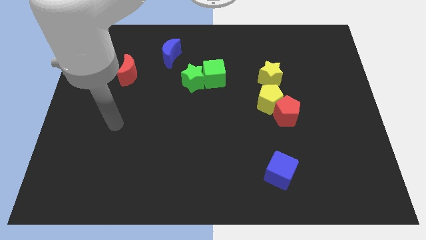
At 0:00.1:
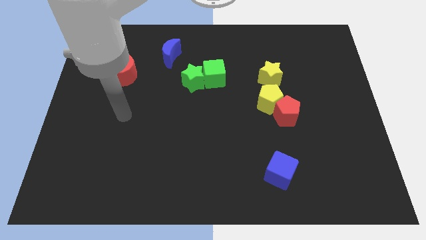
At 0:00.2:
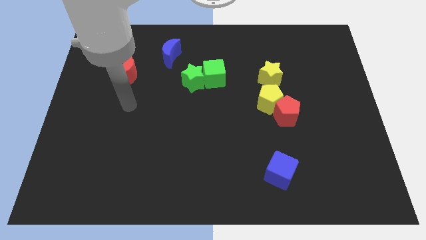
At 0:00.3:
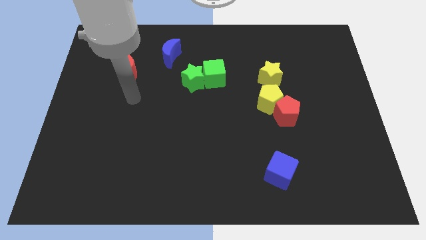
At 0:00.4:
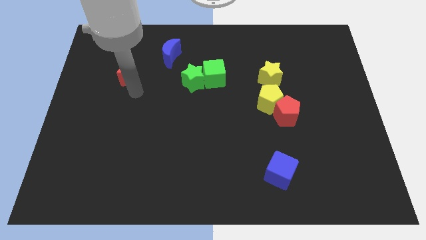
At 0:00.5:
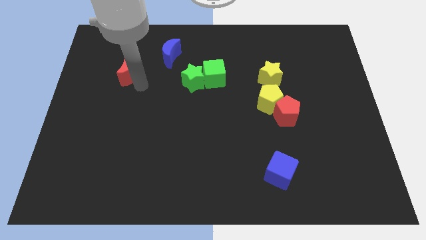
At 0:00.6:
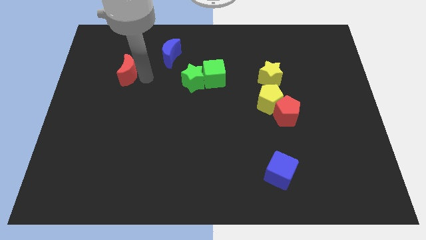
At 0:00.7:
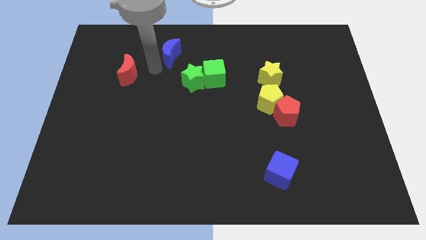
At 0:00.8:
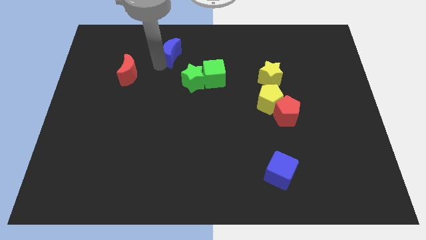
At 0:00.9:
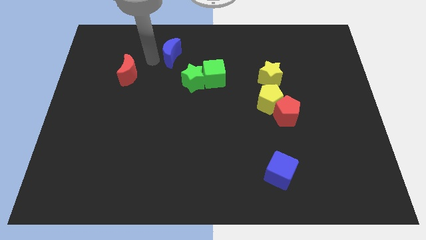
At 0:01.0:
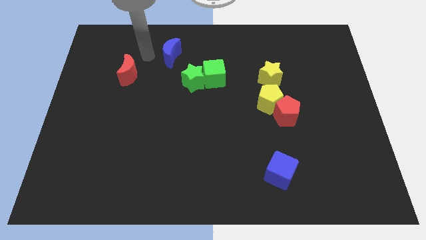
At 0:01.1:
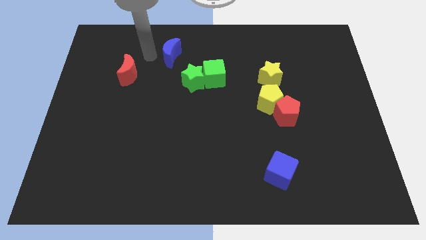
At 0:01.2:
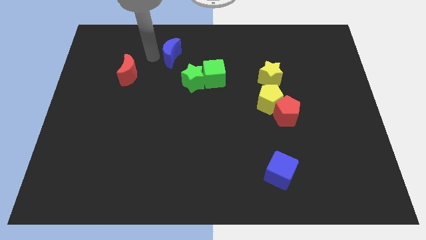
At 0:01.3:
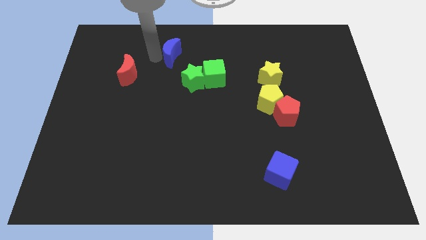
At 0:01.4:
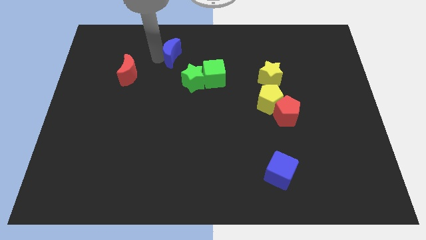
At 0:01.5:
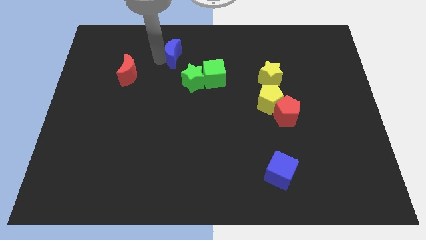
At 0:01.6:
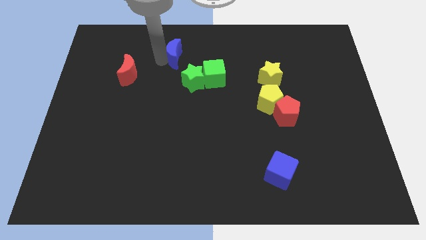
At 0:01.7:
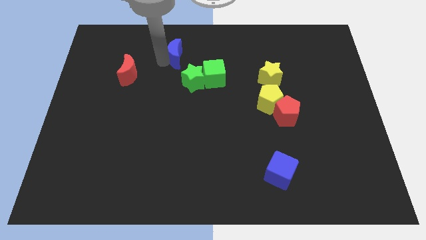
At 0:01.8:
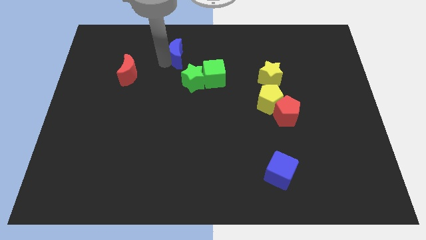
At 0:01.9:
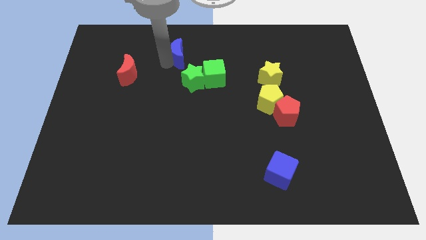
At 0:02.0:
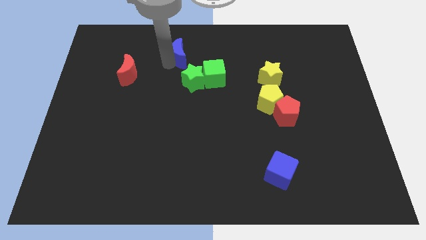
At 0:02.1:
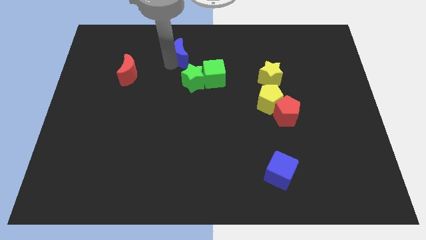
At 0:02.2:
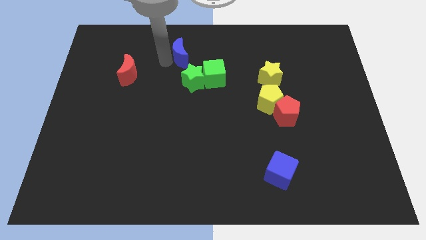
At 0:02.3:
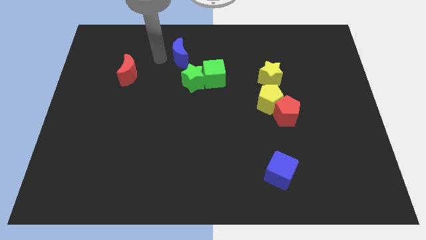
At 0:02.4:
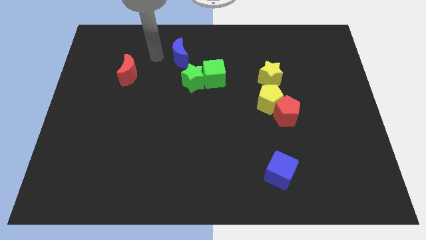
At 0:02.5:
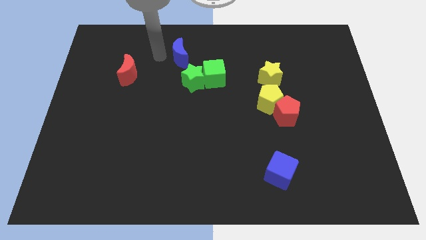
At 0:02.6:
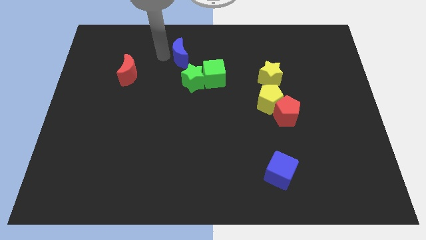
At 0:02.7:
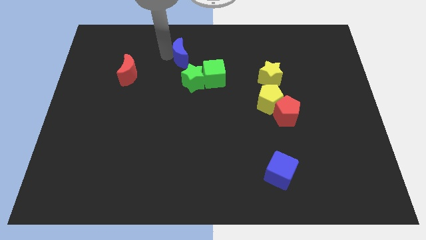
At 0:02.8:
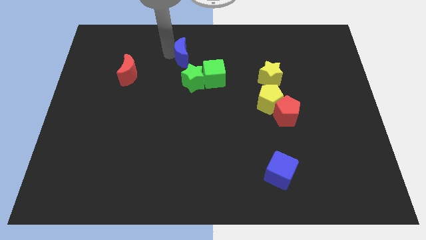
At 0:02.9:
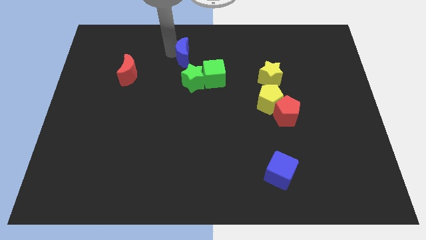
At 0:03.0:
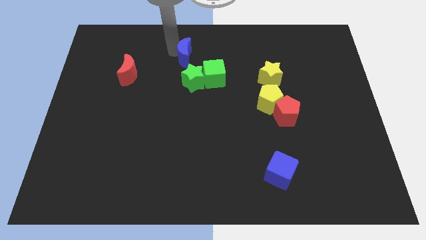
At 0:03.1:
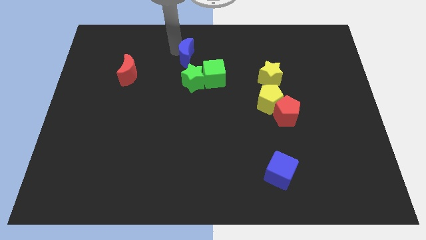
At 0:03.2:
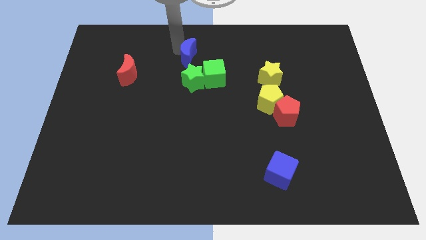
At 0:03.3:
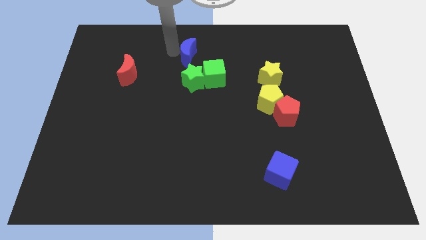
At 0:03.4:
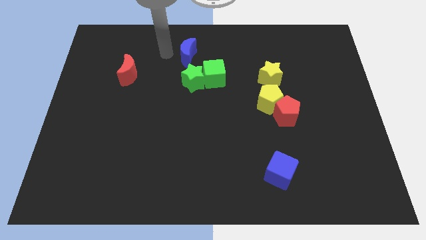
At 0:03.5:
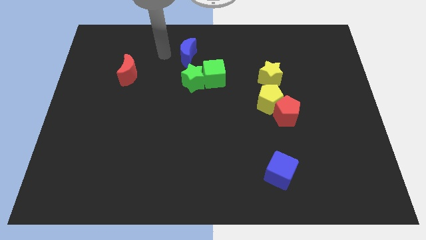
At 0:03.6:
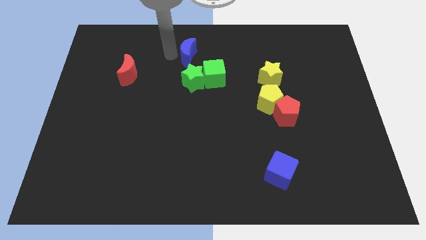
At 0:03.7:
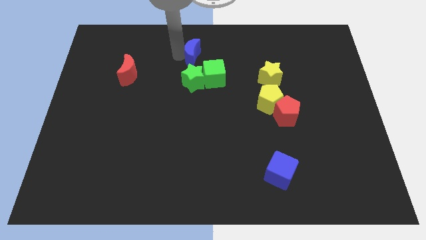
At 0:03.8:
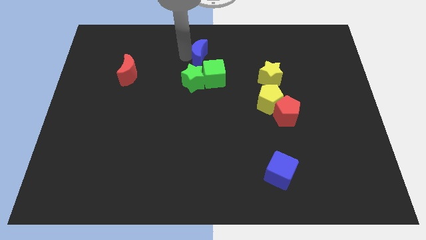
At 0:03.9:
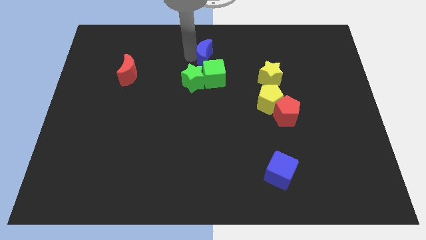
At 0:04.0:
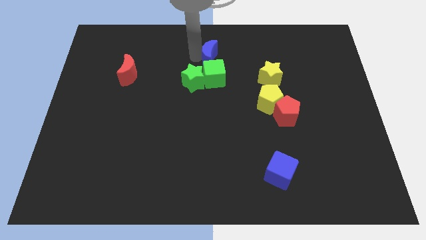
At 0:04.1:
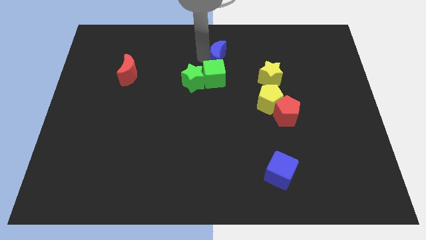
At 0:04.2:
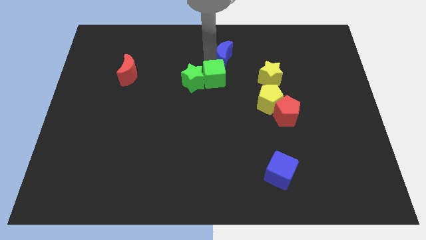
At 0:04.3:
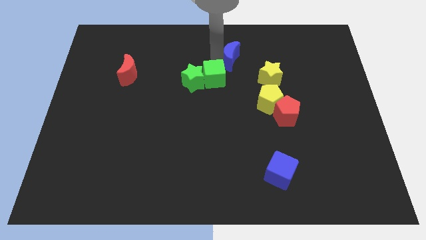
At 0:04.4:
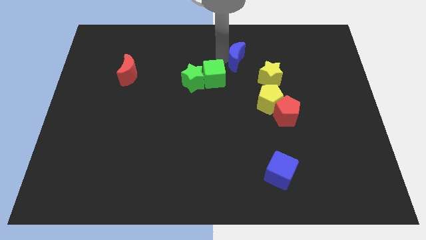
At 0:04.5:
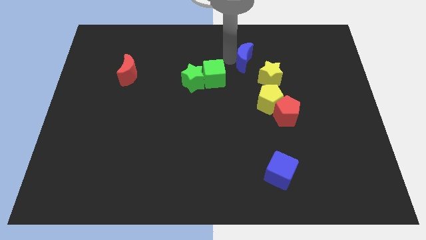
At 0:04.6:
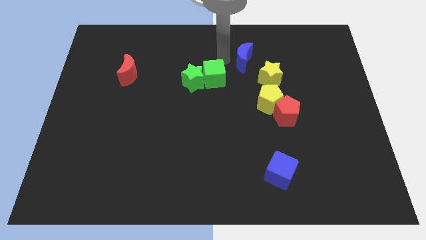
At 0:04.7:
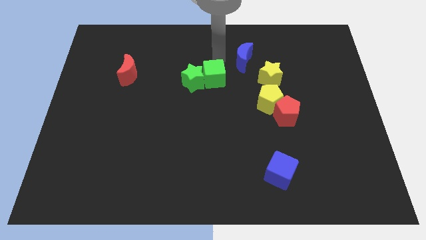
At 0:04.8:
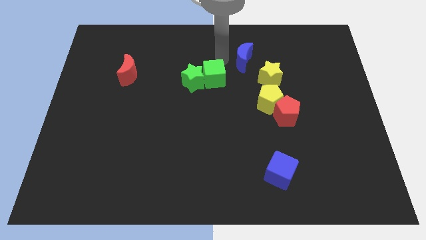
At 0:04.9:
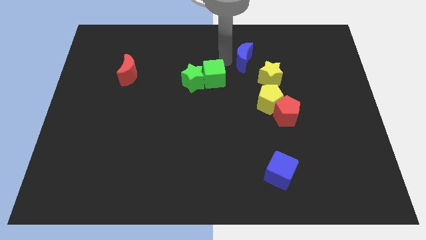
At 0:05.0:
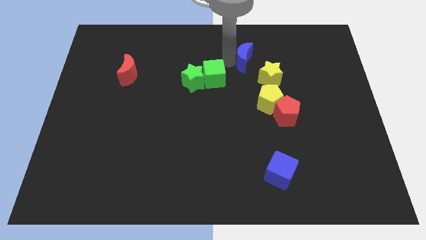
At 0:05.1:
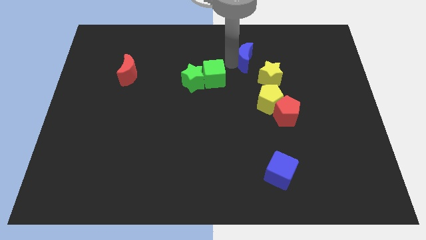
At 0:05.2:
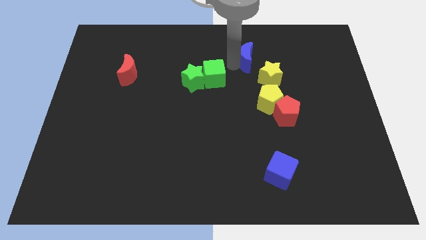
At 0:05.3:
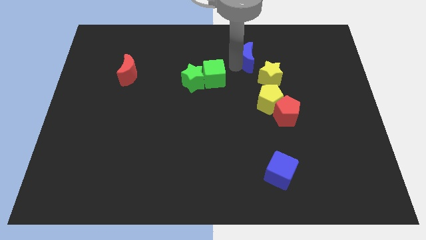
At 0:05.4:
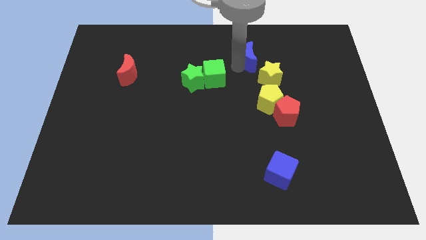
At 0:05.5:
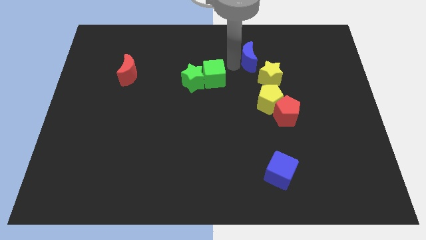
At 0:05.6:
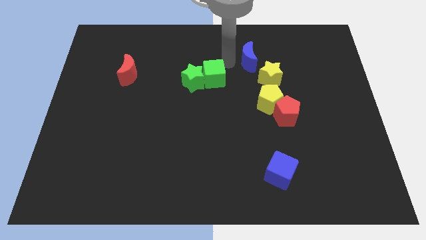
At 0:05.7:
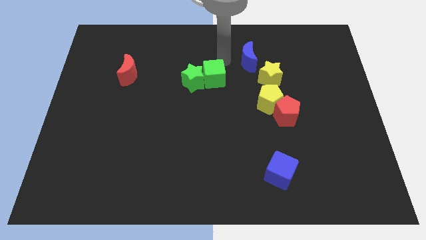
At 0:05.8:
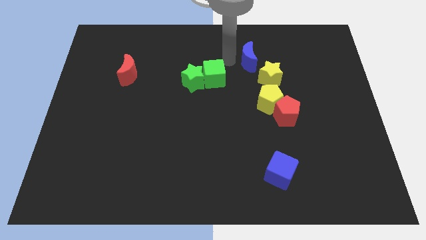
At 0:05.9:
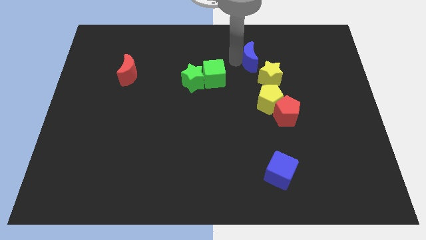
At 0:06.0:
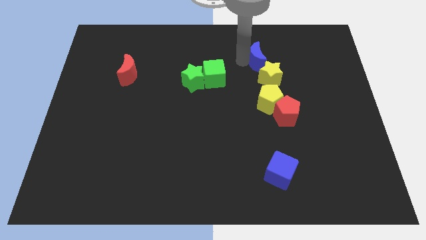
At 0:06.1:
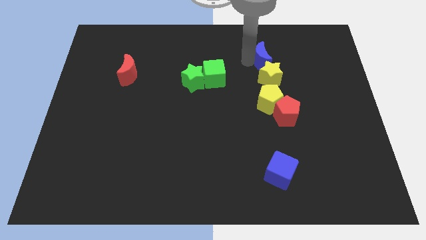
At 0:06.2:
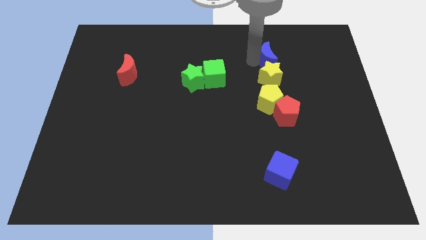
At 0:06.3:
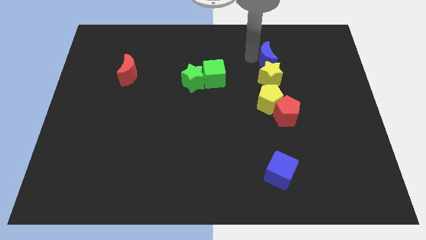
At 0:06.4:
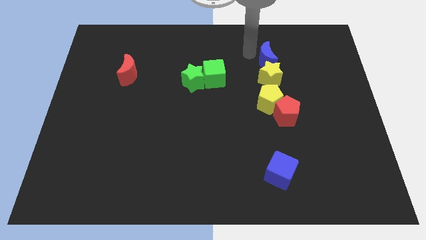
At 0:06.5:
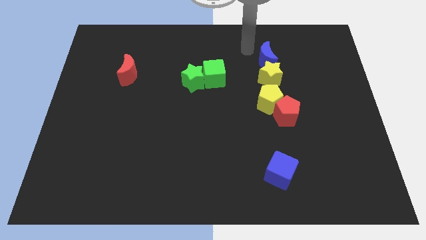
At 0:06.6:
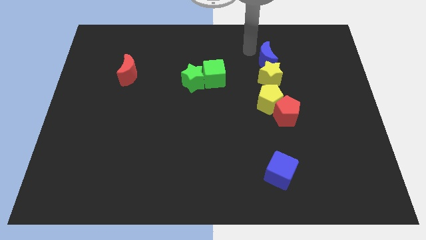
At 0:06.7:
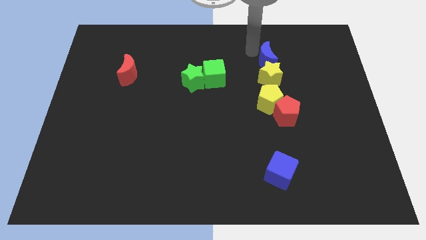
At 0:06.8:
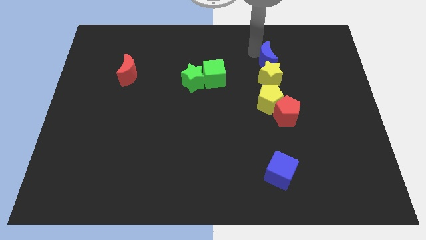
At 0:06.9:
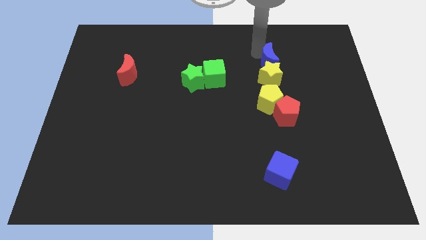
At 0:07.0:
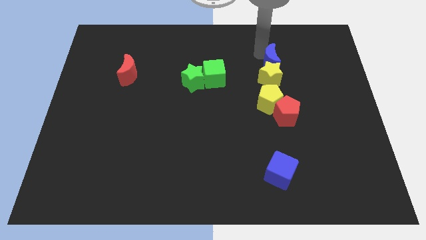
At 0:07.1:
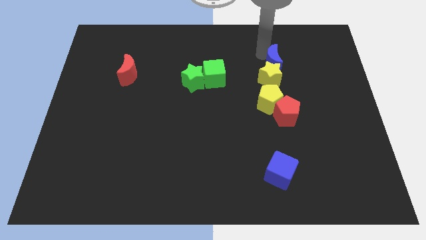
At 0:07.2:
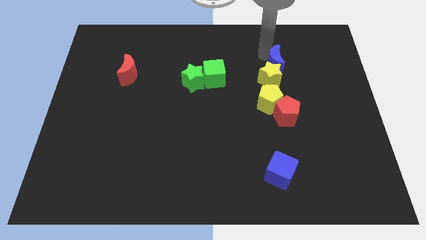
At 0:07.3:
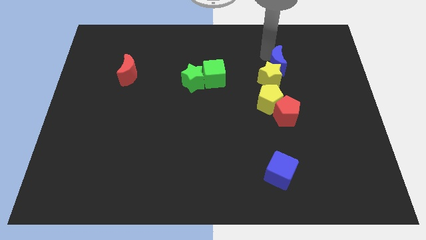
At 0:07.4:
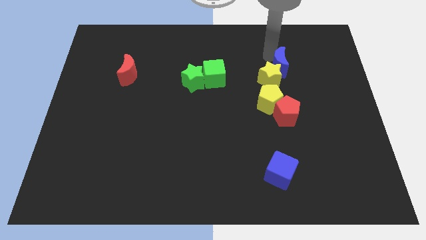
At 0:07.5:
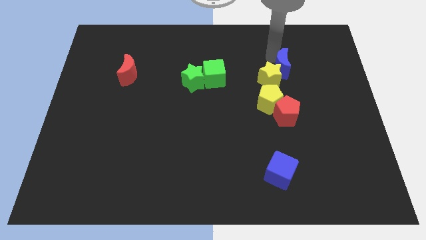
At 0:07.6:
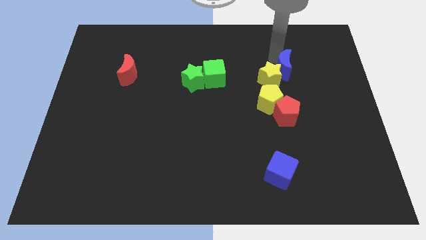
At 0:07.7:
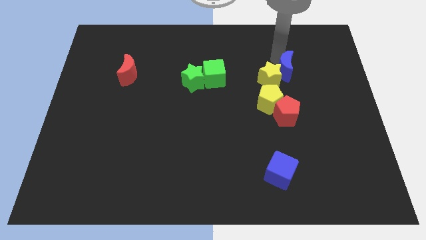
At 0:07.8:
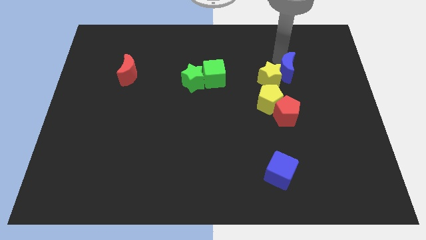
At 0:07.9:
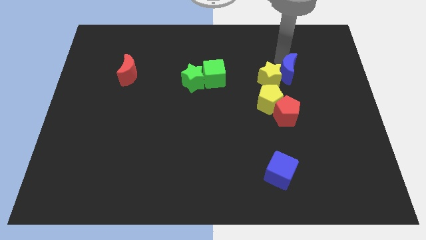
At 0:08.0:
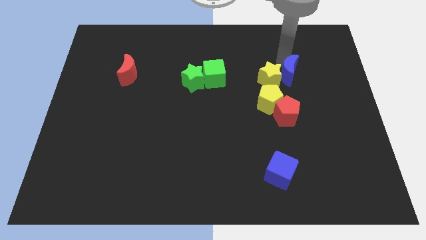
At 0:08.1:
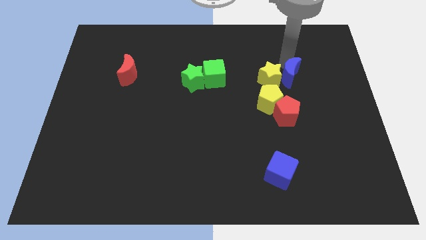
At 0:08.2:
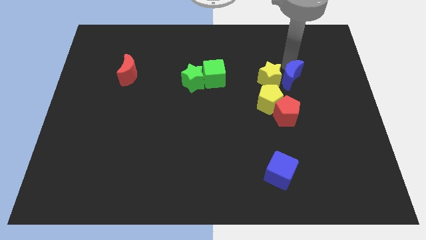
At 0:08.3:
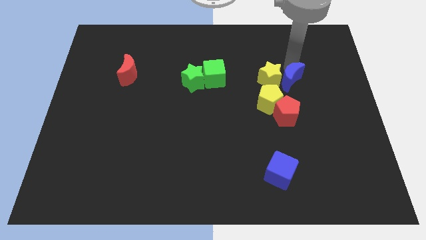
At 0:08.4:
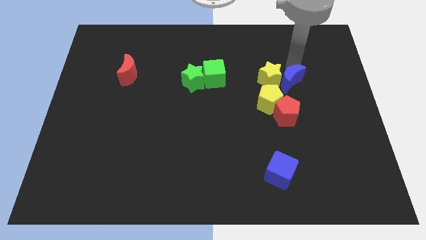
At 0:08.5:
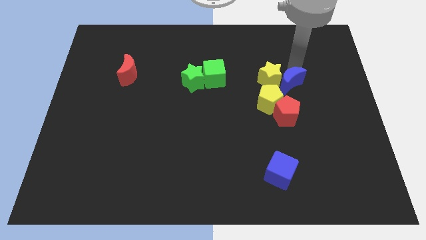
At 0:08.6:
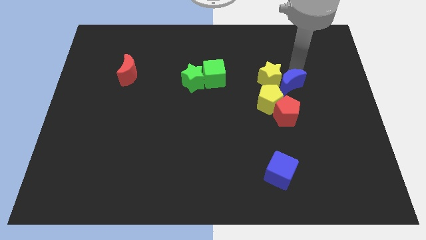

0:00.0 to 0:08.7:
push the blue moon to the top right of the red pentagon
